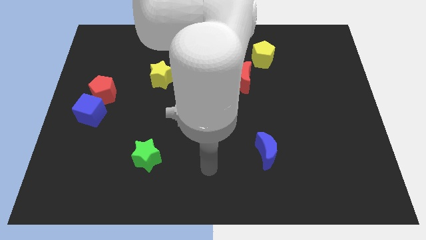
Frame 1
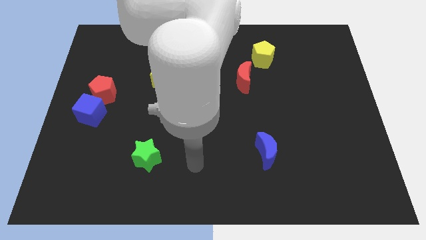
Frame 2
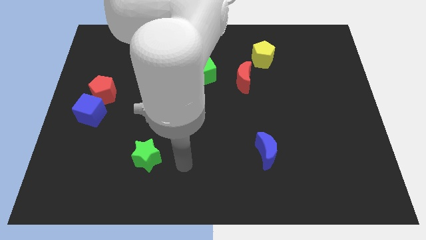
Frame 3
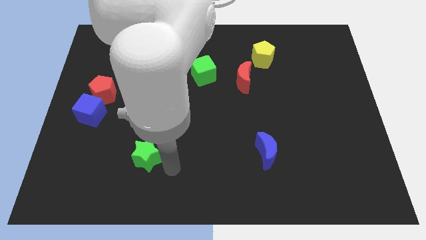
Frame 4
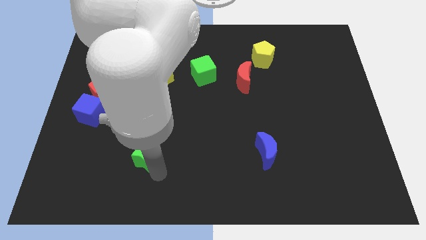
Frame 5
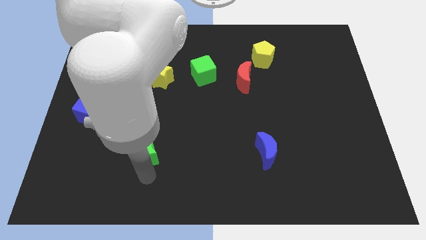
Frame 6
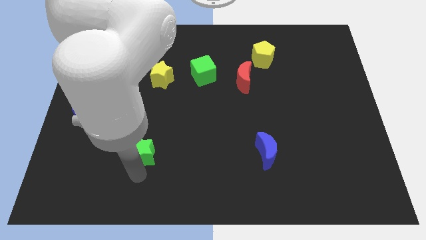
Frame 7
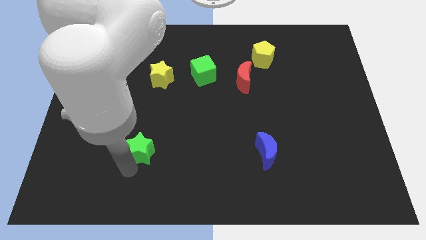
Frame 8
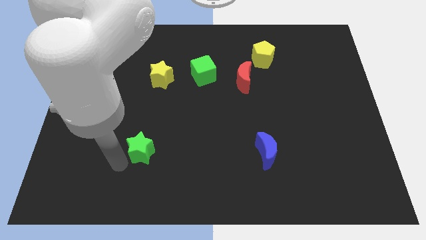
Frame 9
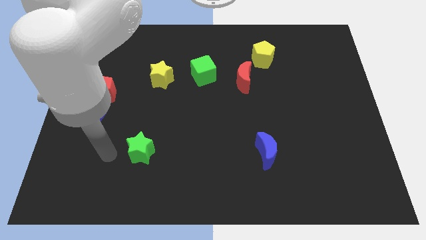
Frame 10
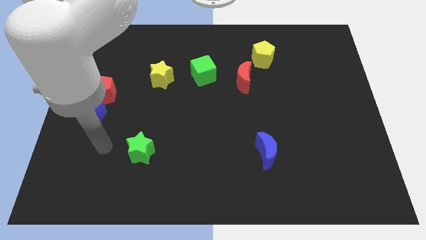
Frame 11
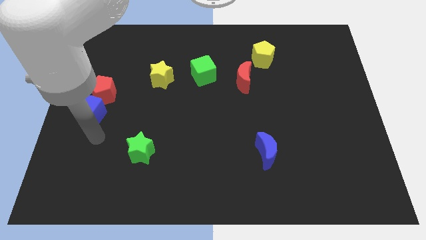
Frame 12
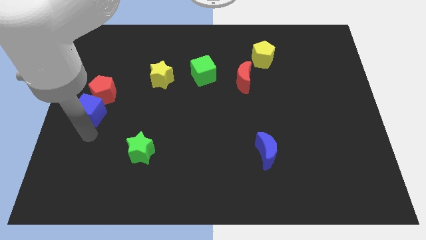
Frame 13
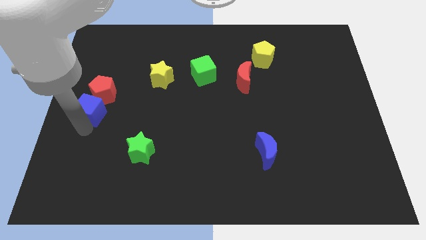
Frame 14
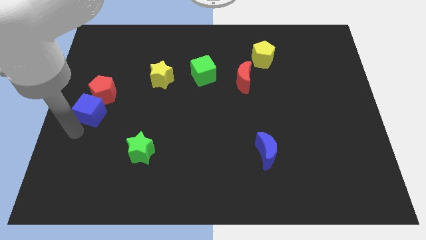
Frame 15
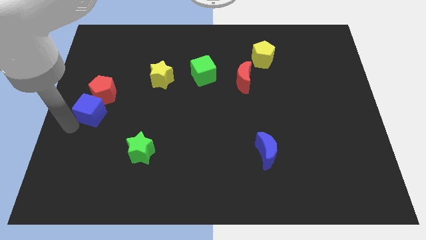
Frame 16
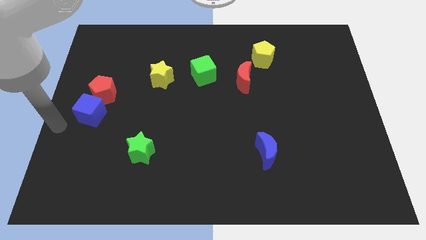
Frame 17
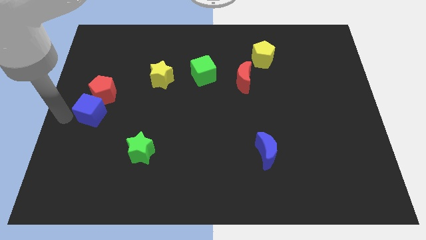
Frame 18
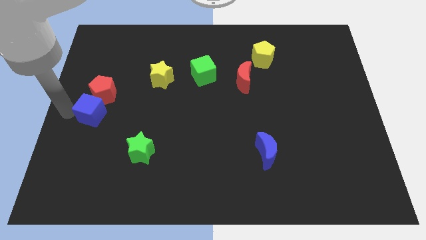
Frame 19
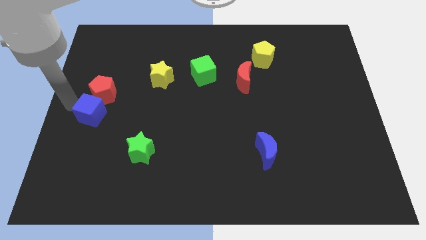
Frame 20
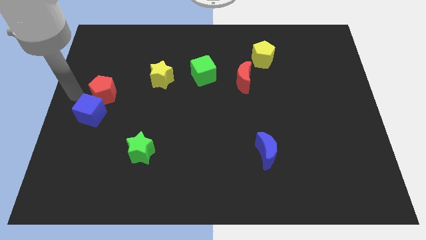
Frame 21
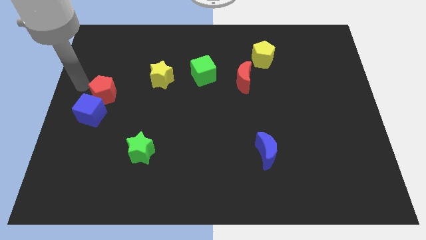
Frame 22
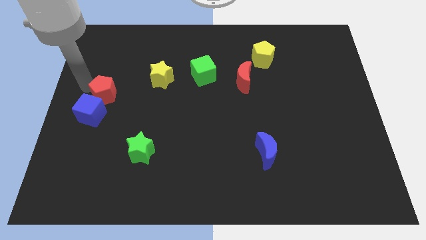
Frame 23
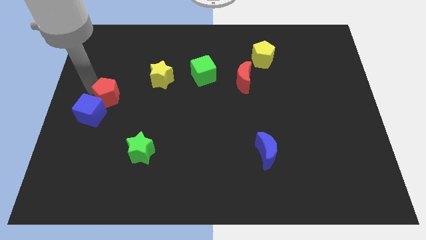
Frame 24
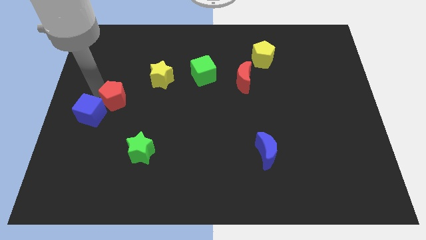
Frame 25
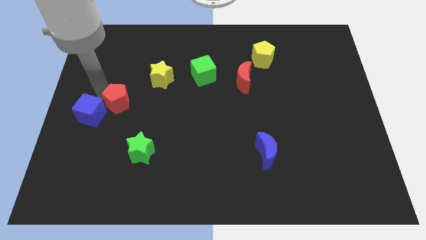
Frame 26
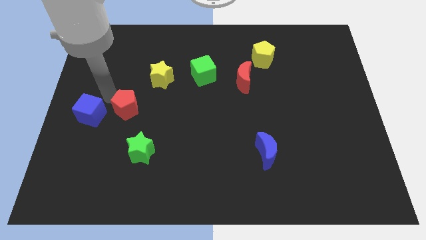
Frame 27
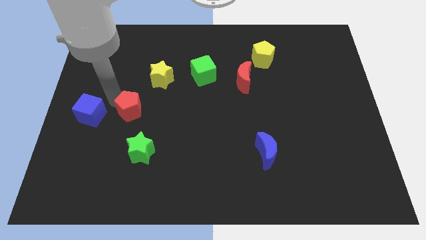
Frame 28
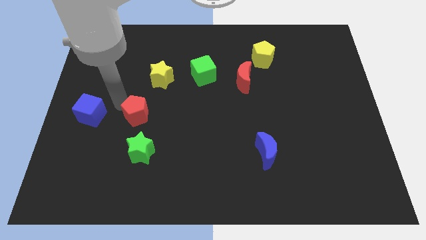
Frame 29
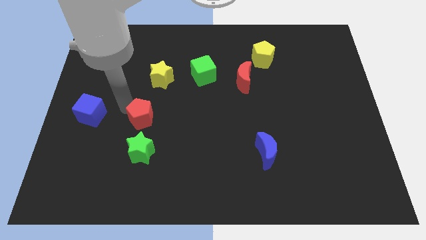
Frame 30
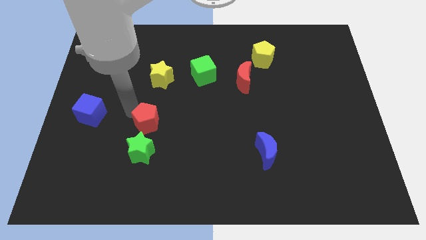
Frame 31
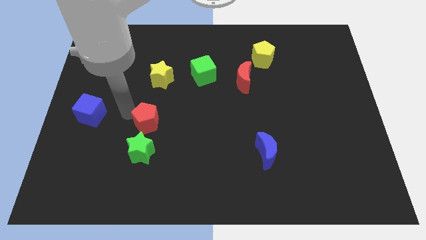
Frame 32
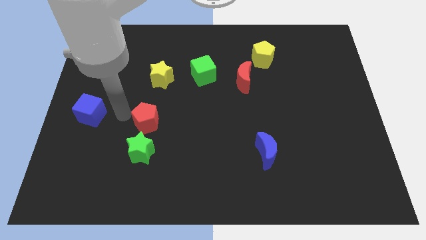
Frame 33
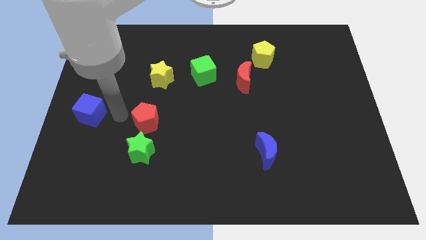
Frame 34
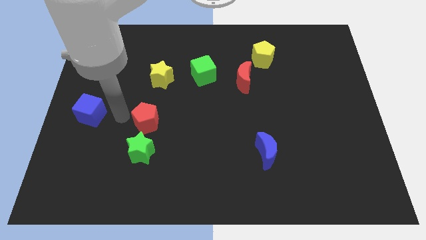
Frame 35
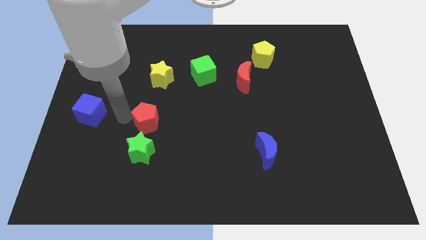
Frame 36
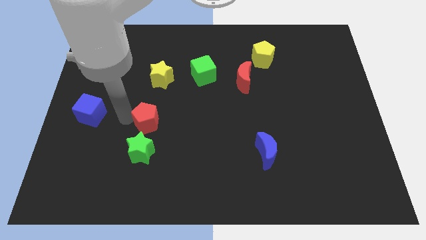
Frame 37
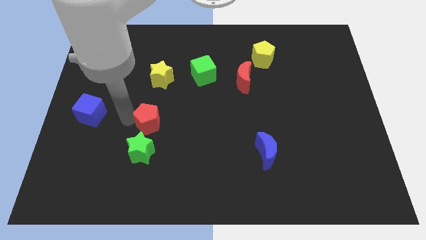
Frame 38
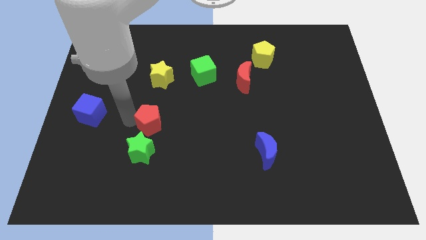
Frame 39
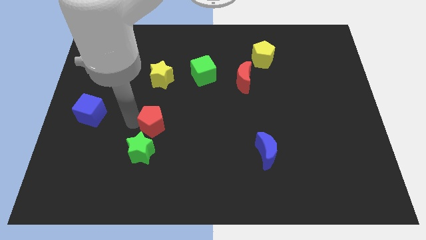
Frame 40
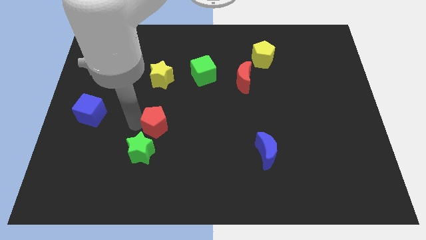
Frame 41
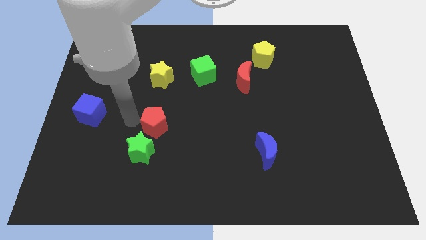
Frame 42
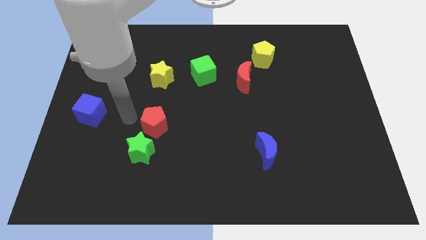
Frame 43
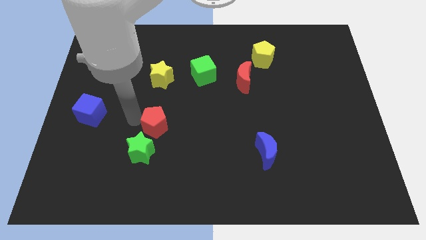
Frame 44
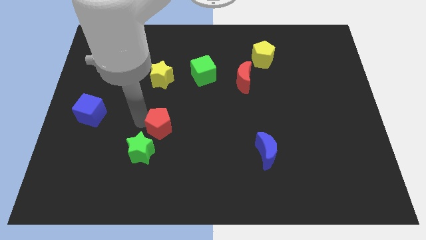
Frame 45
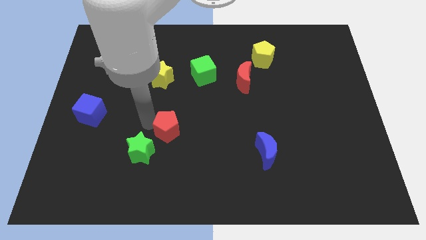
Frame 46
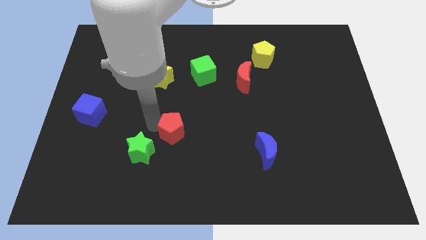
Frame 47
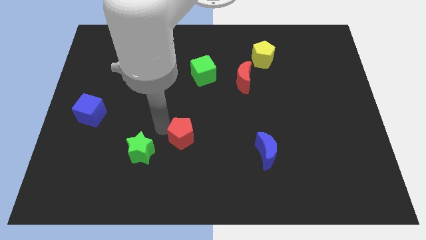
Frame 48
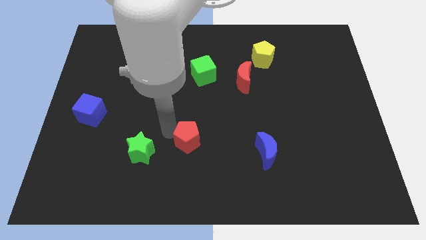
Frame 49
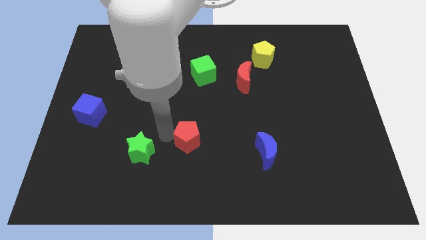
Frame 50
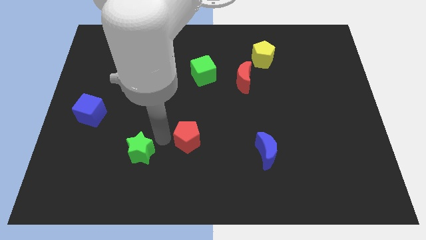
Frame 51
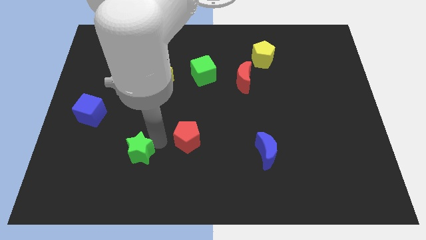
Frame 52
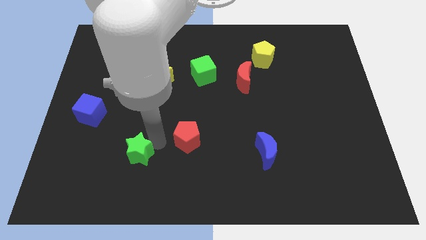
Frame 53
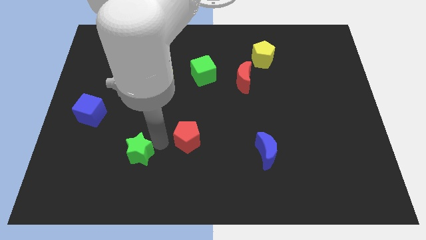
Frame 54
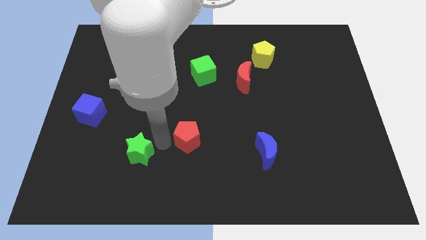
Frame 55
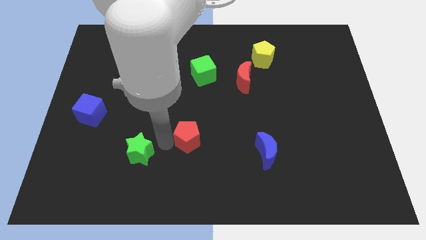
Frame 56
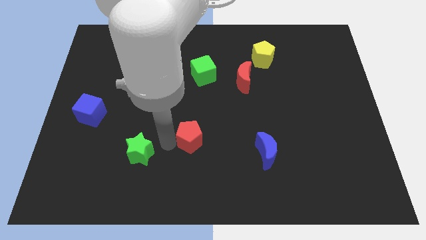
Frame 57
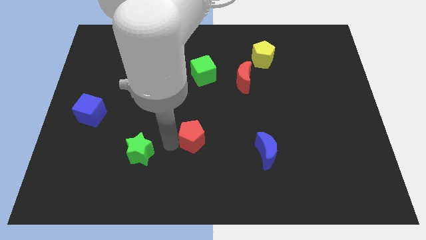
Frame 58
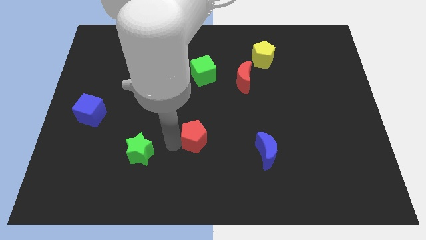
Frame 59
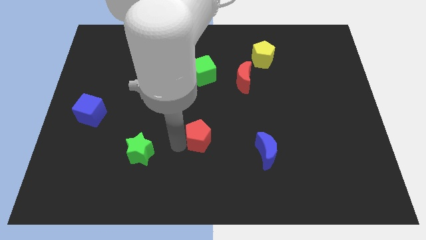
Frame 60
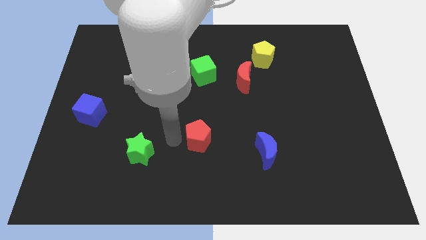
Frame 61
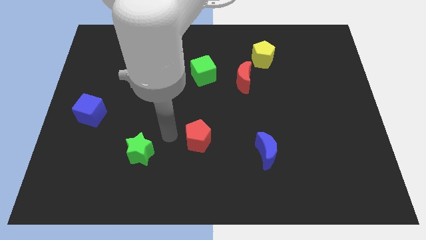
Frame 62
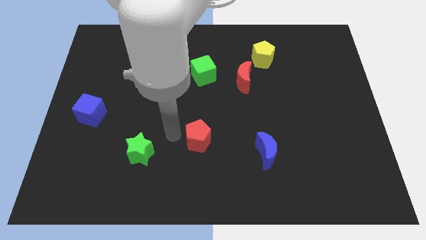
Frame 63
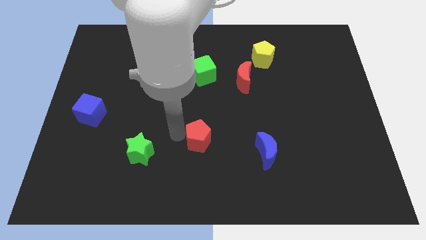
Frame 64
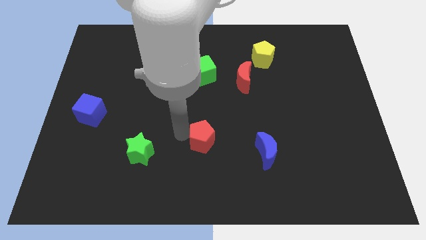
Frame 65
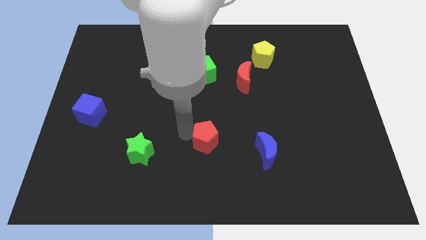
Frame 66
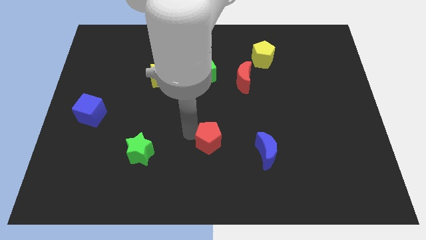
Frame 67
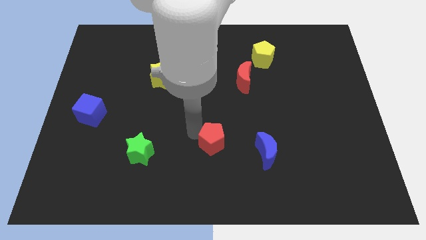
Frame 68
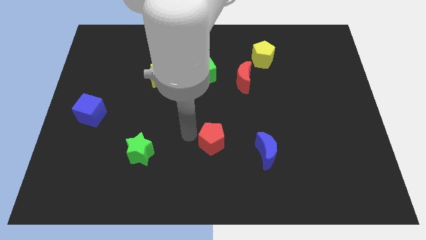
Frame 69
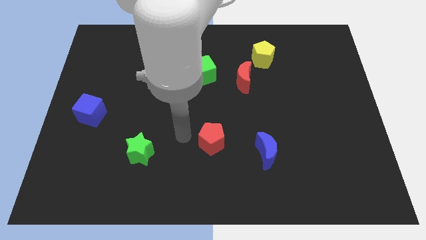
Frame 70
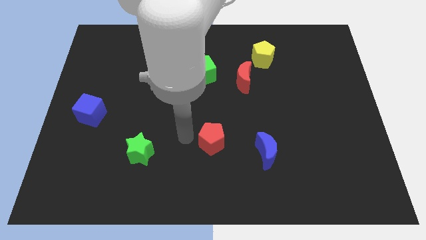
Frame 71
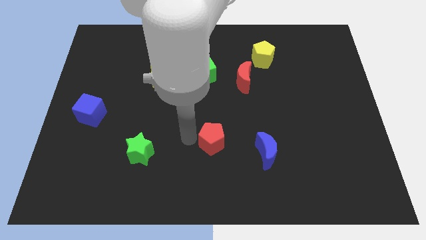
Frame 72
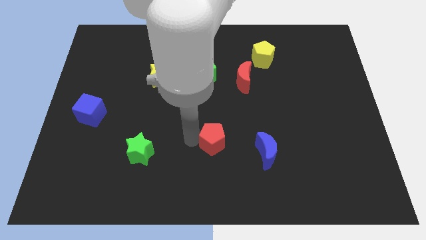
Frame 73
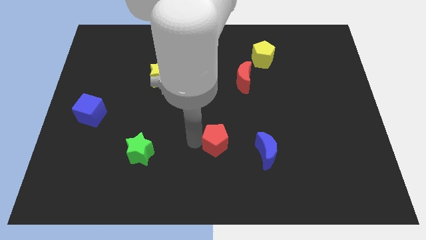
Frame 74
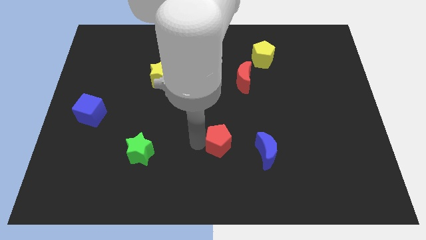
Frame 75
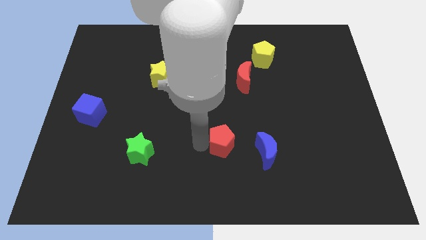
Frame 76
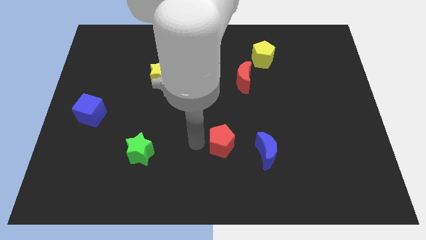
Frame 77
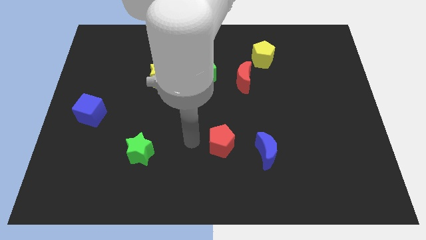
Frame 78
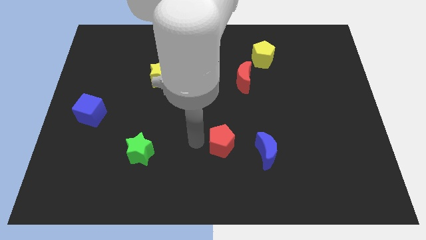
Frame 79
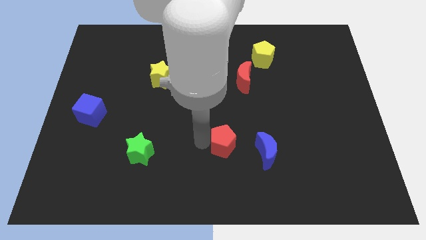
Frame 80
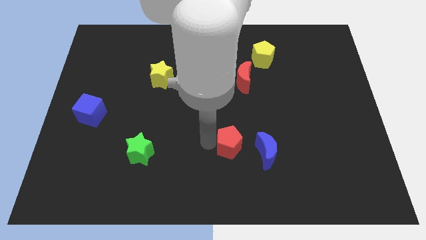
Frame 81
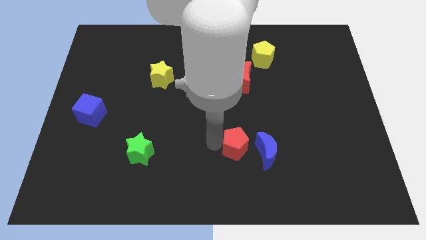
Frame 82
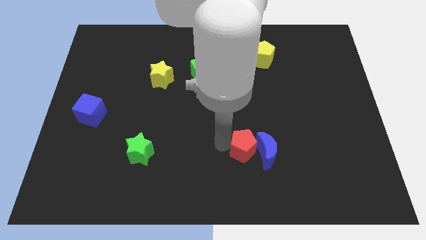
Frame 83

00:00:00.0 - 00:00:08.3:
put the red pentagon towards the blue moon
